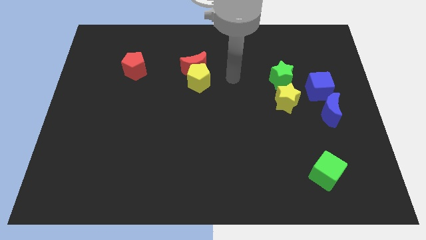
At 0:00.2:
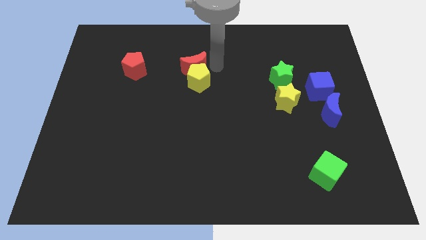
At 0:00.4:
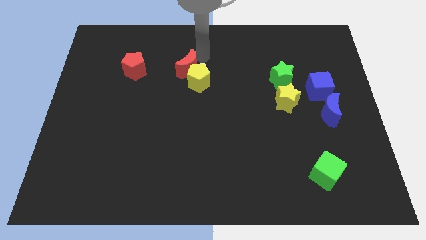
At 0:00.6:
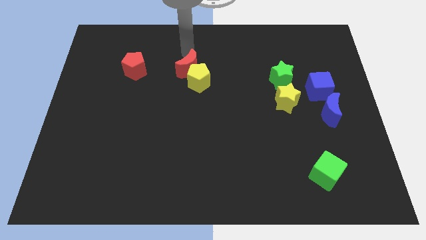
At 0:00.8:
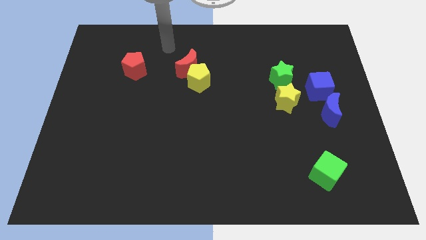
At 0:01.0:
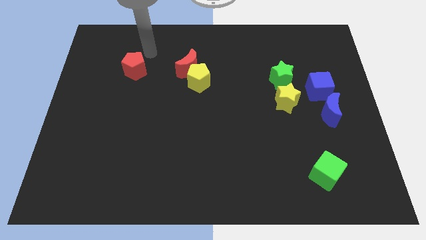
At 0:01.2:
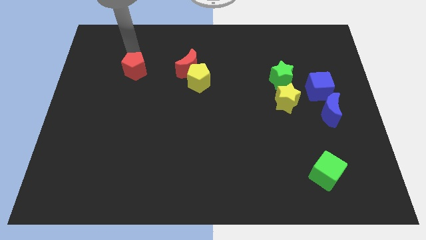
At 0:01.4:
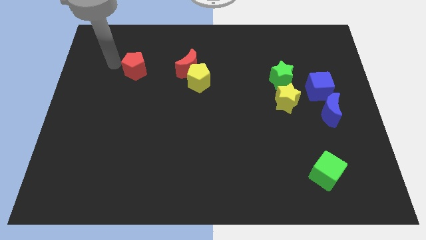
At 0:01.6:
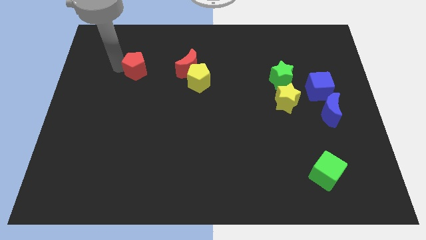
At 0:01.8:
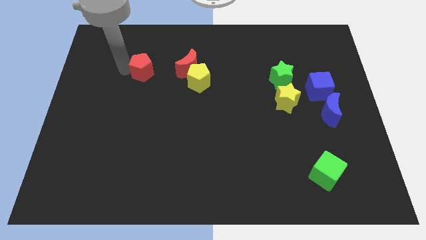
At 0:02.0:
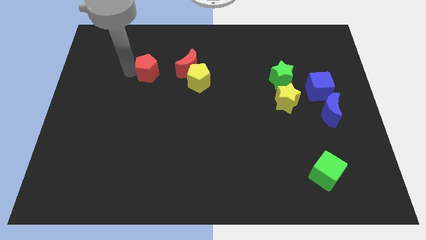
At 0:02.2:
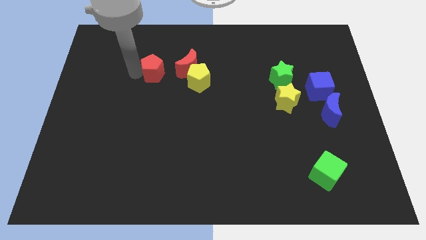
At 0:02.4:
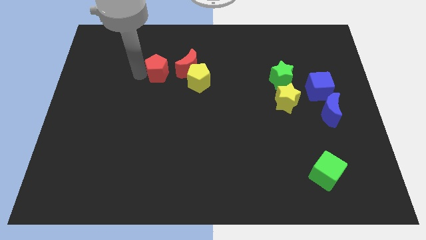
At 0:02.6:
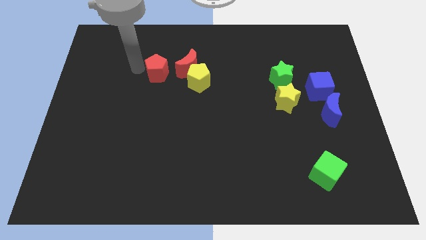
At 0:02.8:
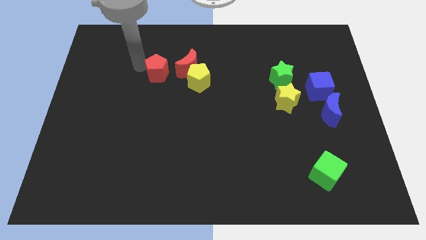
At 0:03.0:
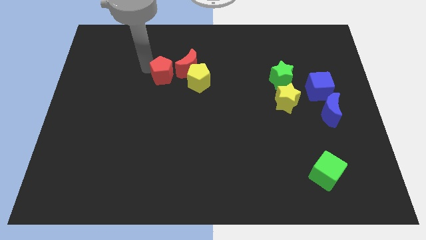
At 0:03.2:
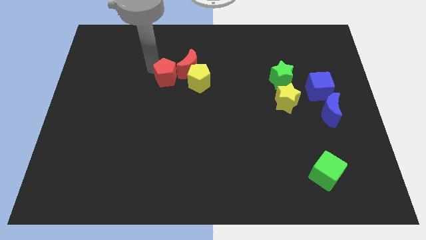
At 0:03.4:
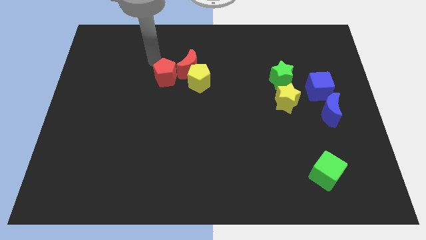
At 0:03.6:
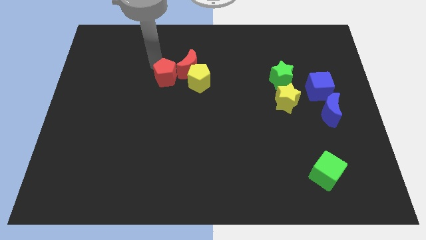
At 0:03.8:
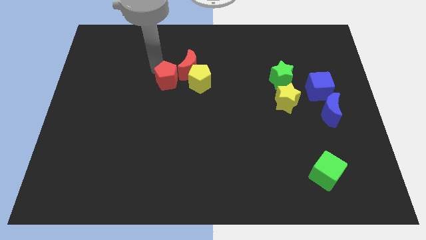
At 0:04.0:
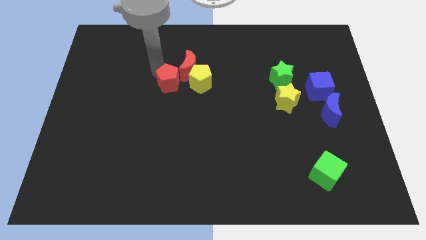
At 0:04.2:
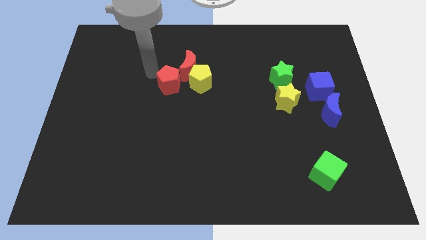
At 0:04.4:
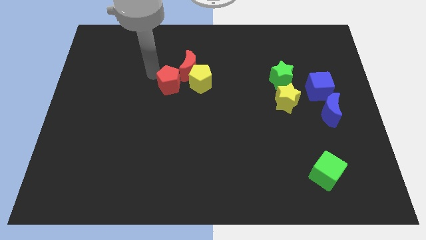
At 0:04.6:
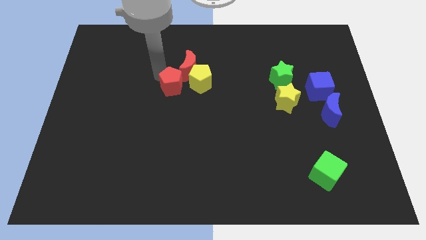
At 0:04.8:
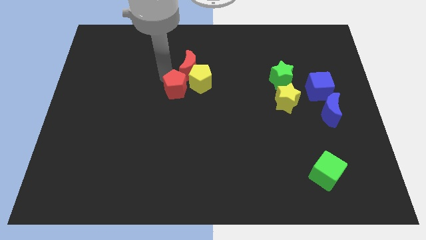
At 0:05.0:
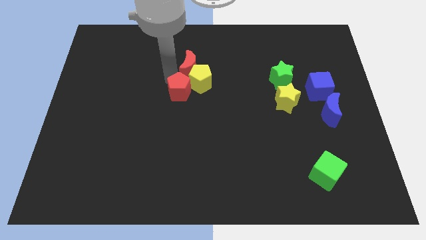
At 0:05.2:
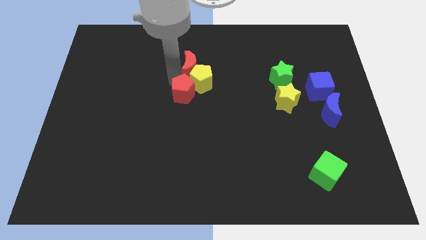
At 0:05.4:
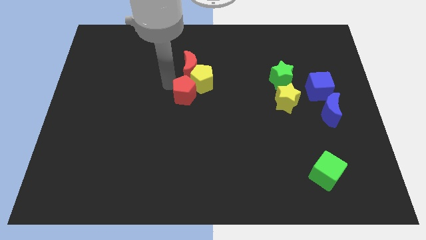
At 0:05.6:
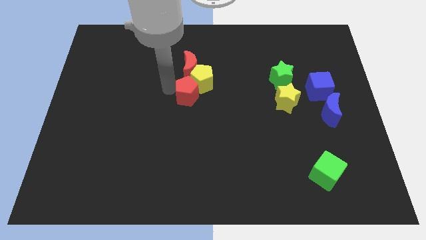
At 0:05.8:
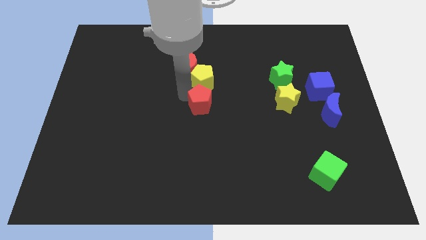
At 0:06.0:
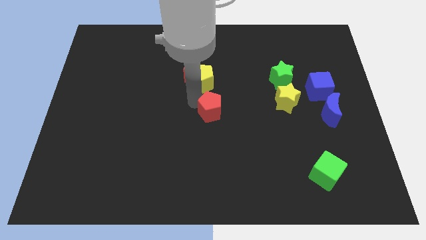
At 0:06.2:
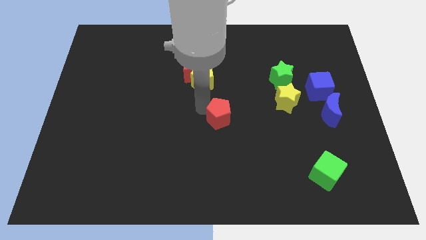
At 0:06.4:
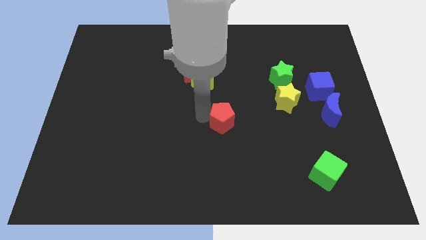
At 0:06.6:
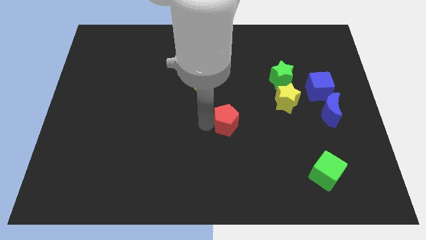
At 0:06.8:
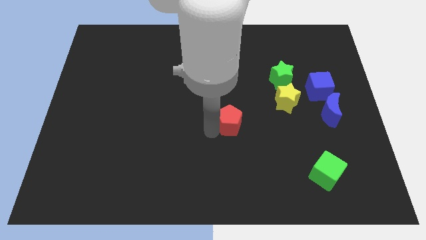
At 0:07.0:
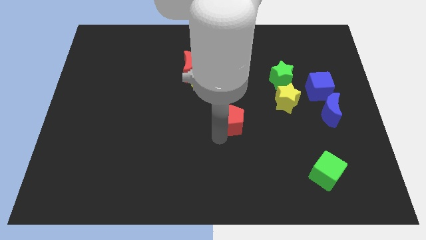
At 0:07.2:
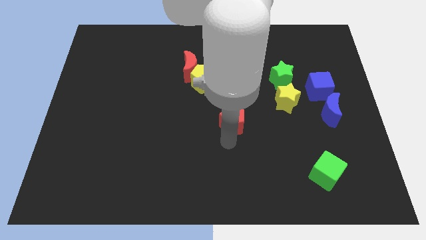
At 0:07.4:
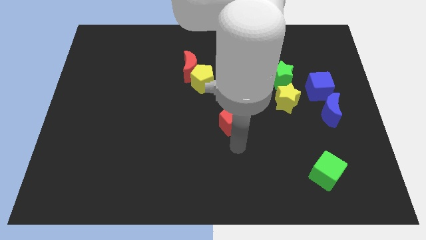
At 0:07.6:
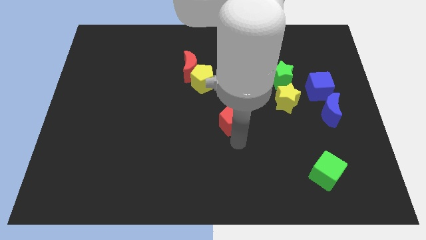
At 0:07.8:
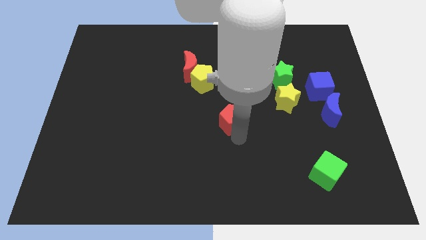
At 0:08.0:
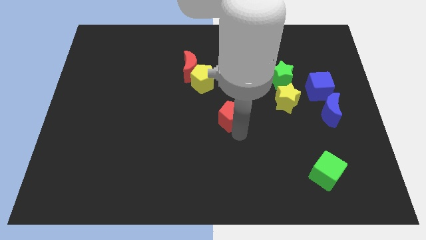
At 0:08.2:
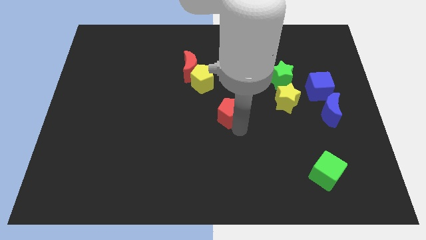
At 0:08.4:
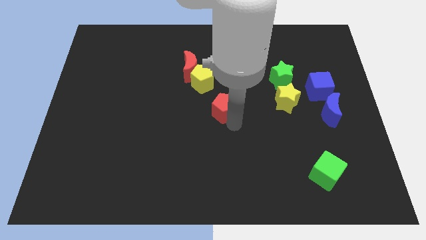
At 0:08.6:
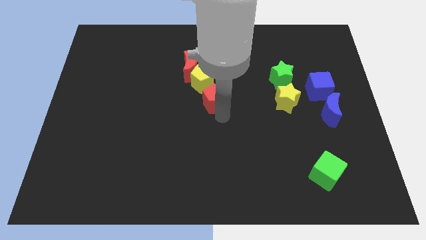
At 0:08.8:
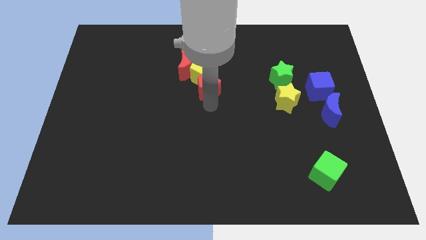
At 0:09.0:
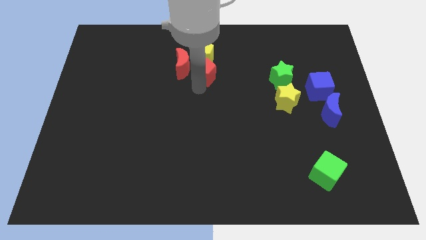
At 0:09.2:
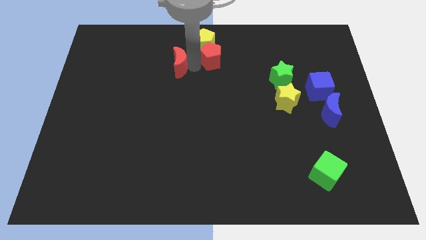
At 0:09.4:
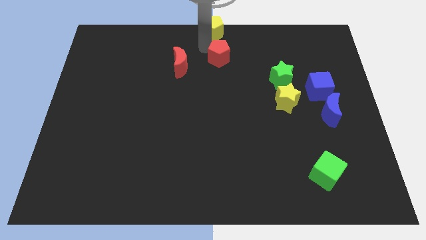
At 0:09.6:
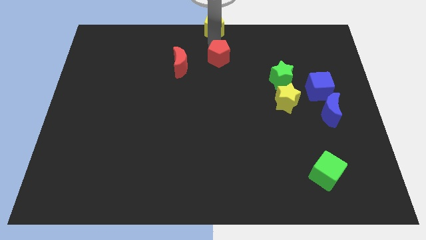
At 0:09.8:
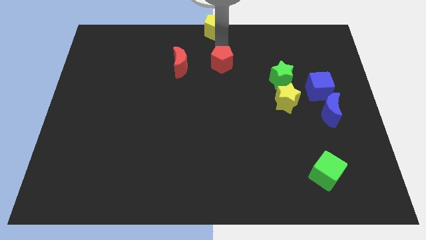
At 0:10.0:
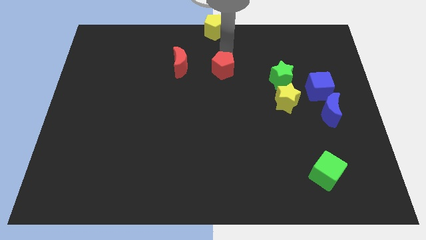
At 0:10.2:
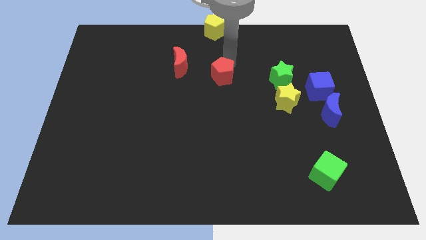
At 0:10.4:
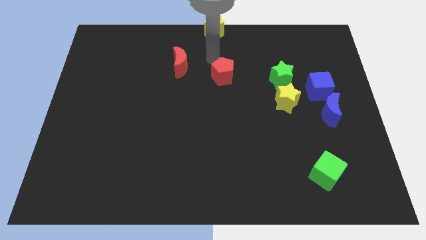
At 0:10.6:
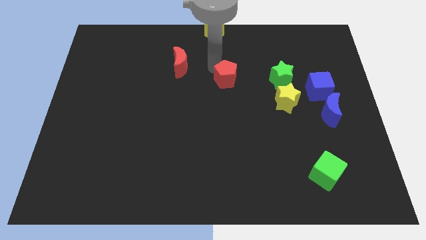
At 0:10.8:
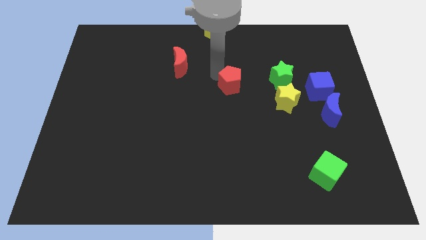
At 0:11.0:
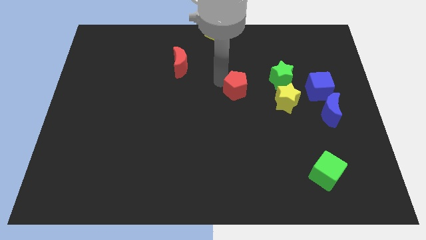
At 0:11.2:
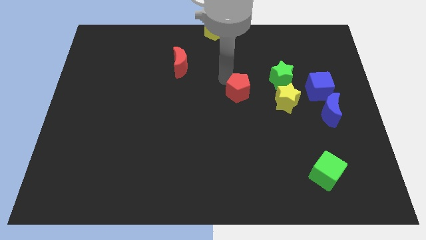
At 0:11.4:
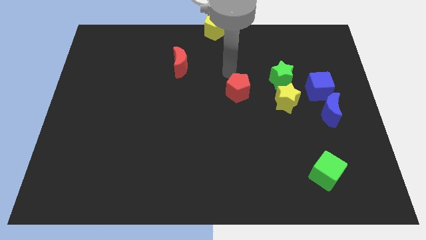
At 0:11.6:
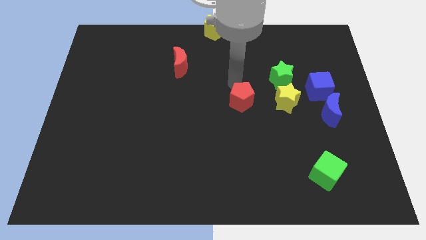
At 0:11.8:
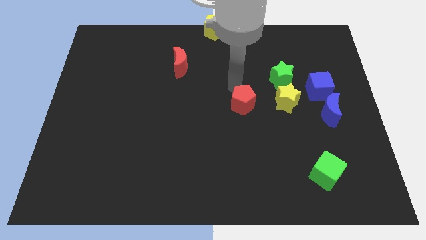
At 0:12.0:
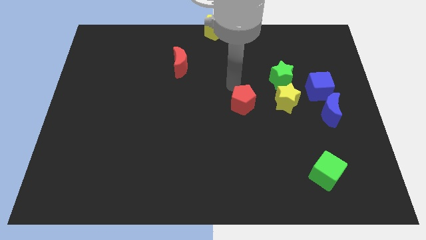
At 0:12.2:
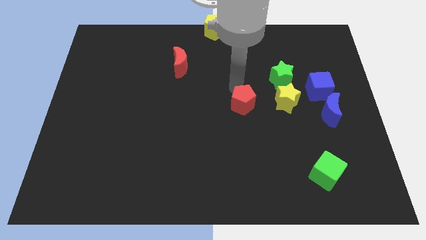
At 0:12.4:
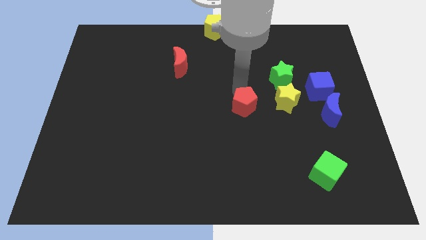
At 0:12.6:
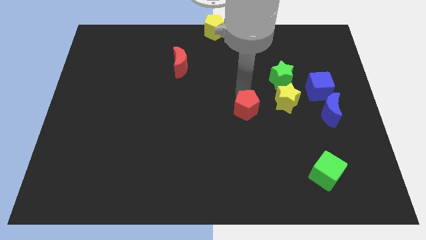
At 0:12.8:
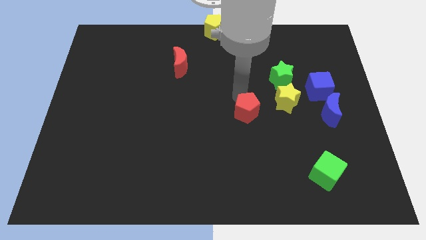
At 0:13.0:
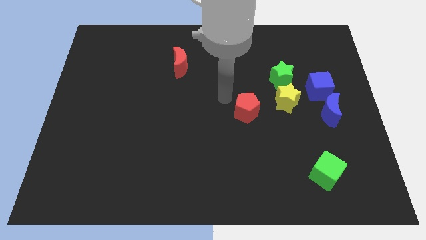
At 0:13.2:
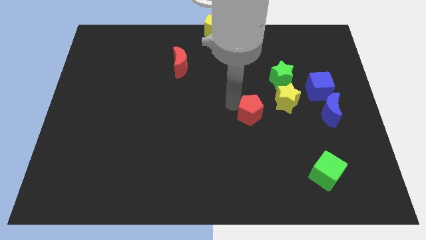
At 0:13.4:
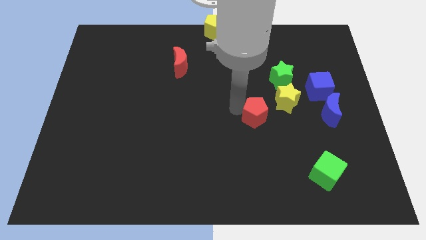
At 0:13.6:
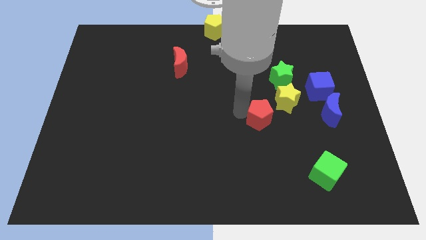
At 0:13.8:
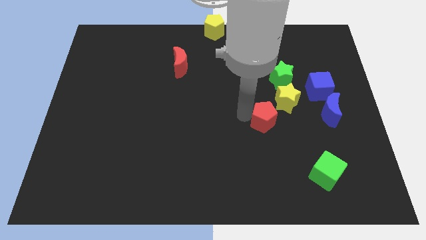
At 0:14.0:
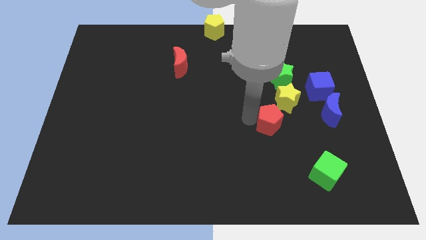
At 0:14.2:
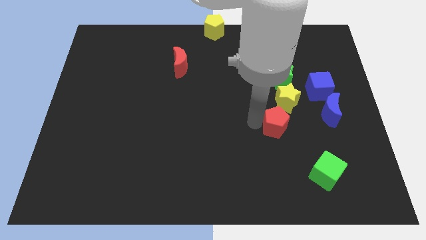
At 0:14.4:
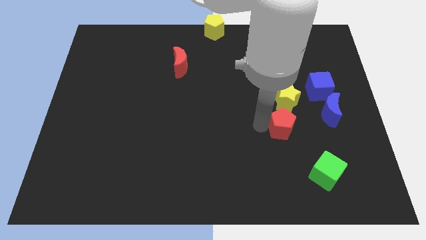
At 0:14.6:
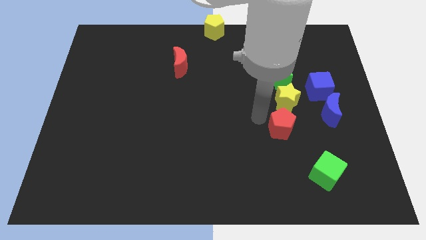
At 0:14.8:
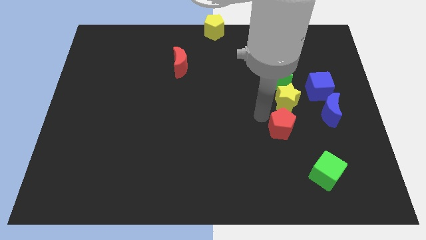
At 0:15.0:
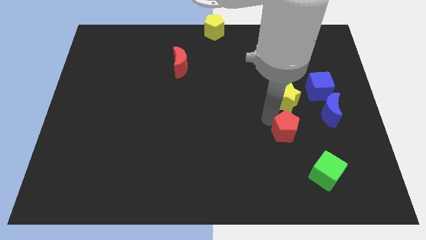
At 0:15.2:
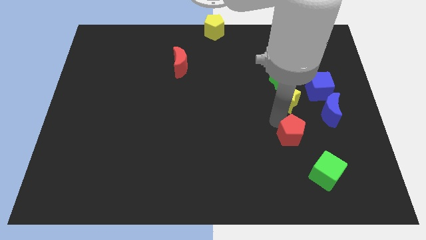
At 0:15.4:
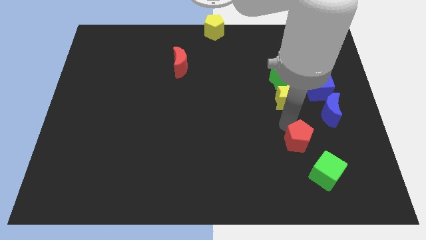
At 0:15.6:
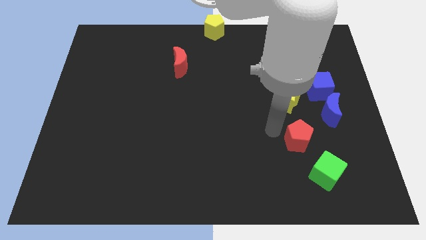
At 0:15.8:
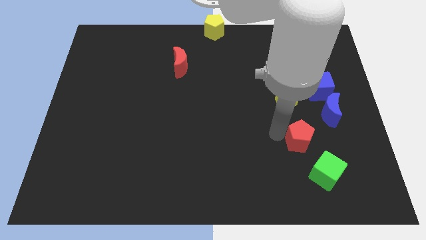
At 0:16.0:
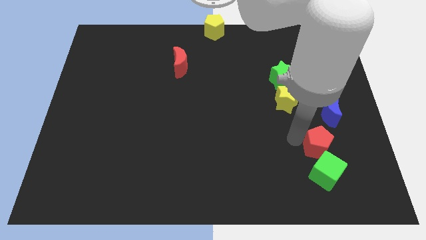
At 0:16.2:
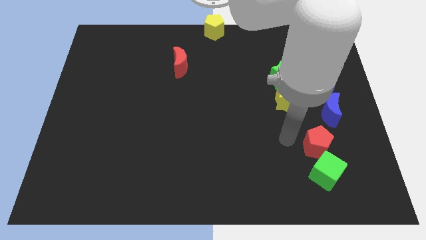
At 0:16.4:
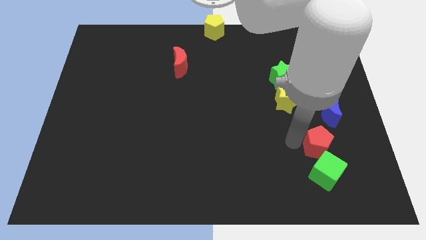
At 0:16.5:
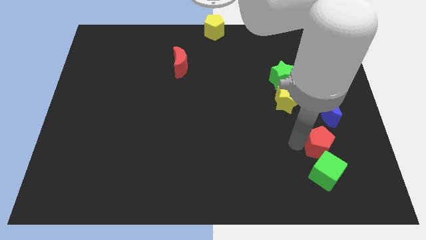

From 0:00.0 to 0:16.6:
put the red pentagon to the top right of the green cube
